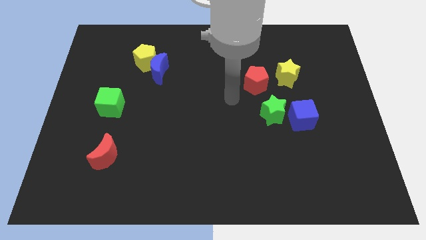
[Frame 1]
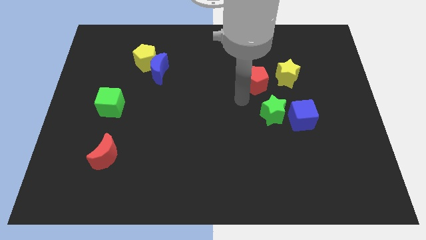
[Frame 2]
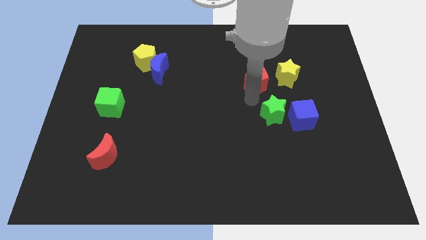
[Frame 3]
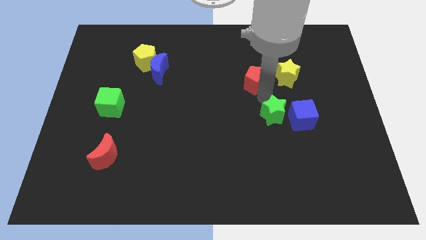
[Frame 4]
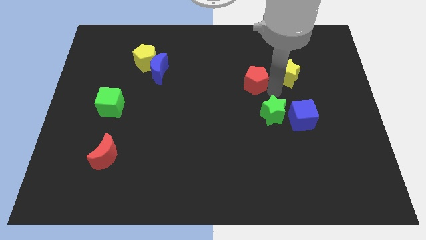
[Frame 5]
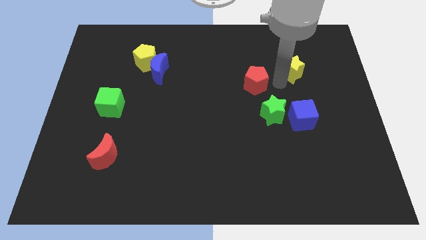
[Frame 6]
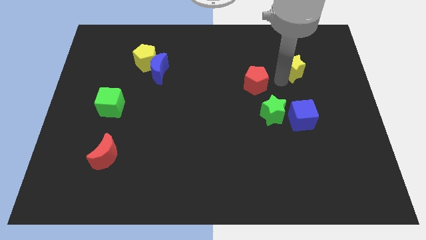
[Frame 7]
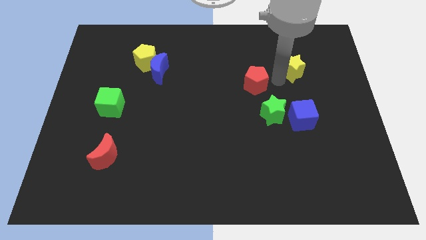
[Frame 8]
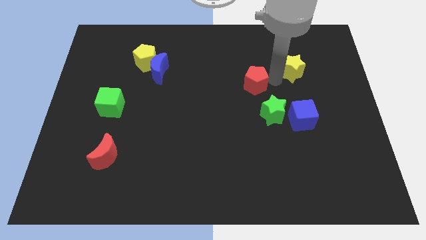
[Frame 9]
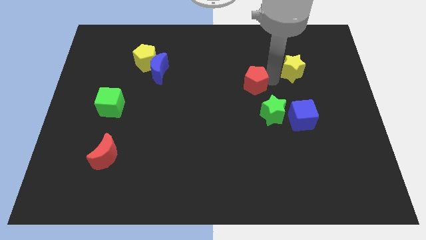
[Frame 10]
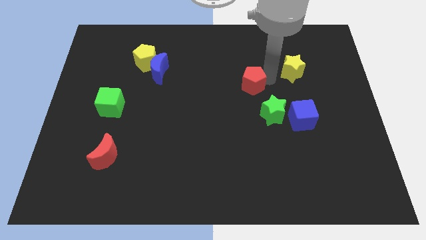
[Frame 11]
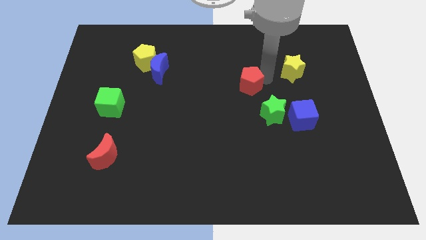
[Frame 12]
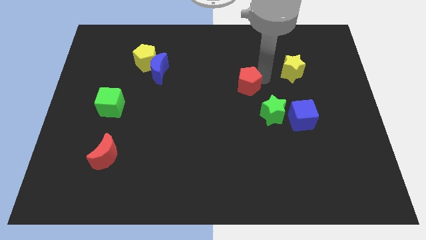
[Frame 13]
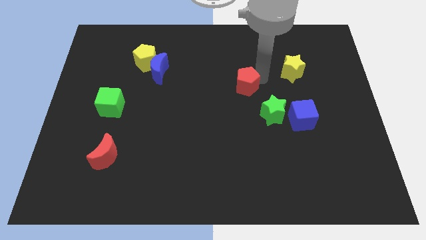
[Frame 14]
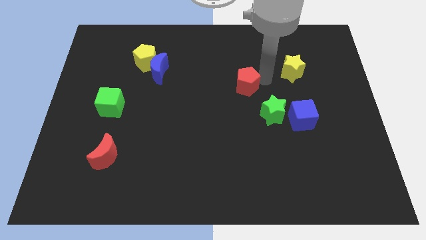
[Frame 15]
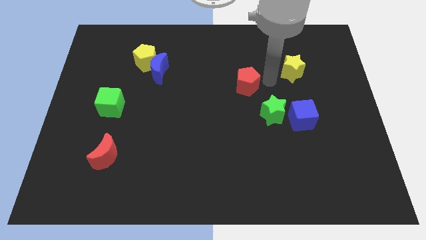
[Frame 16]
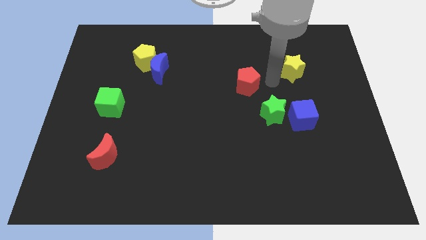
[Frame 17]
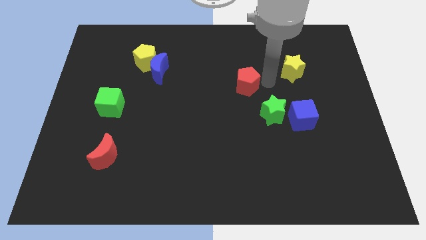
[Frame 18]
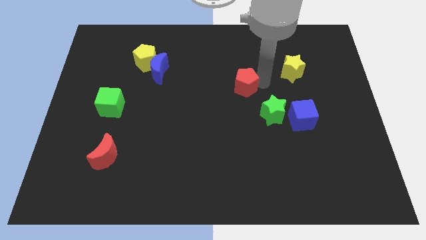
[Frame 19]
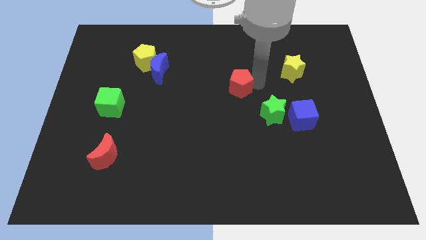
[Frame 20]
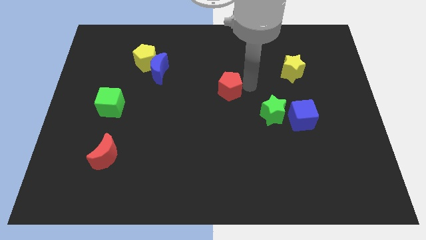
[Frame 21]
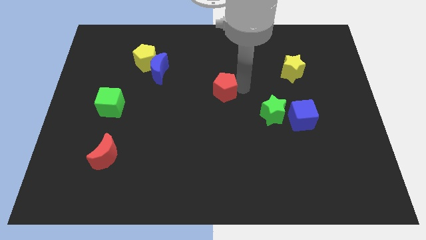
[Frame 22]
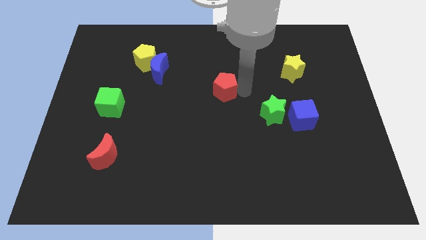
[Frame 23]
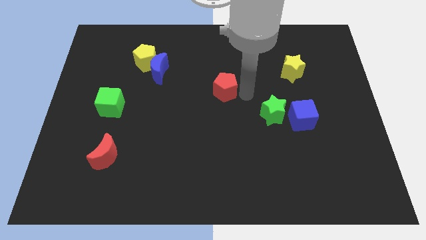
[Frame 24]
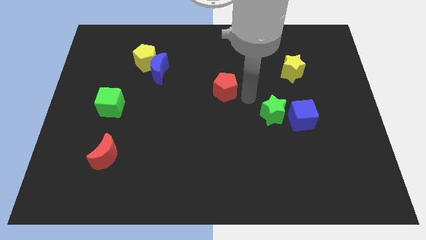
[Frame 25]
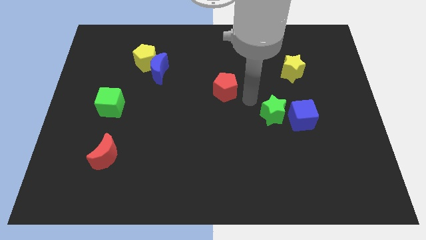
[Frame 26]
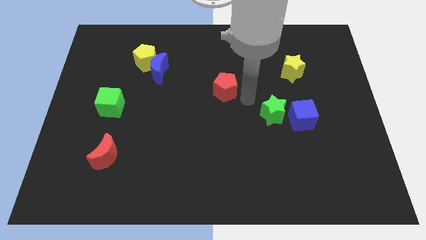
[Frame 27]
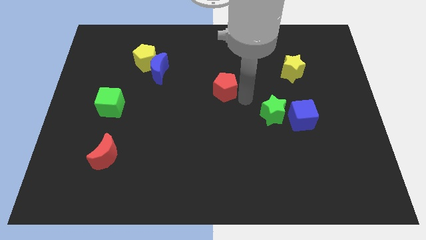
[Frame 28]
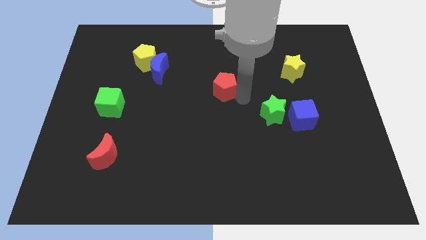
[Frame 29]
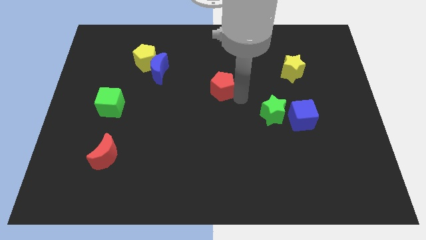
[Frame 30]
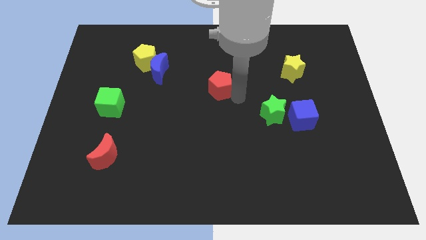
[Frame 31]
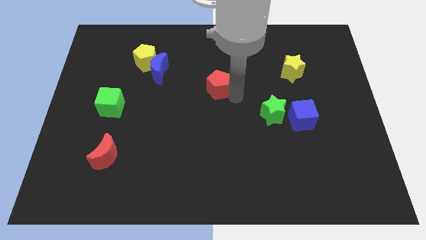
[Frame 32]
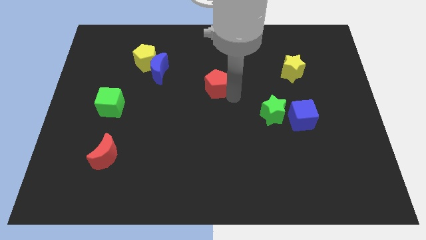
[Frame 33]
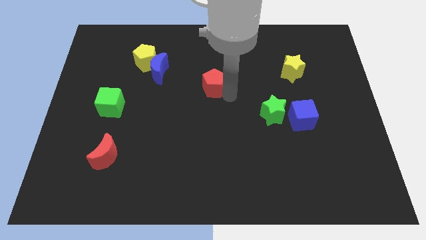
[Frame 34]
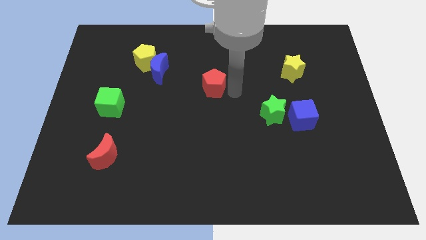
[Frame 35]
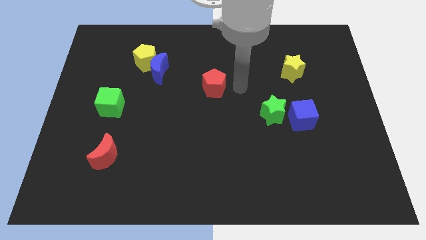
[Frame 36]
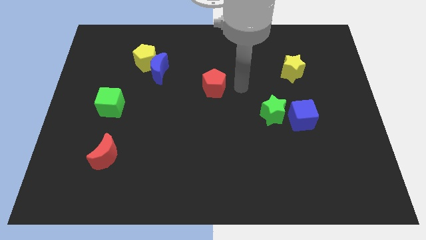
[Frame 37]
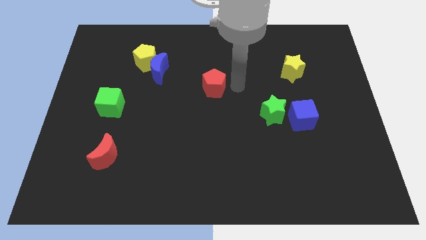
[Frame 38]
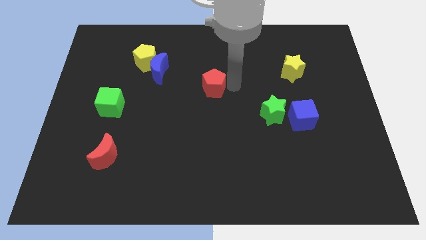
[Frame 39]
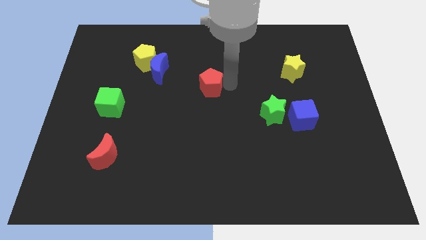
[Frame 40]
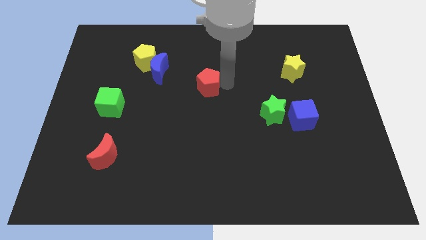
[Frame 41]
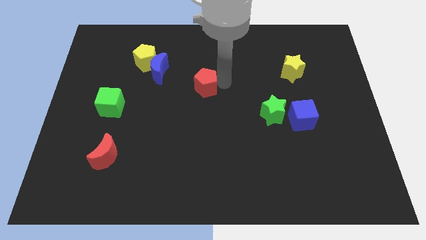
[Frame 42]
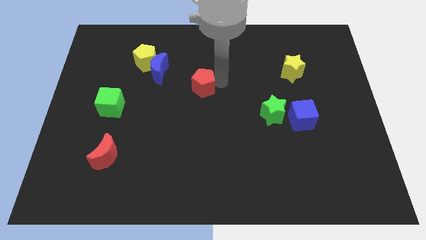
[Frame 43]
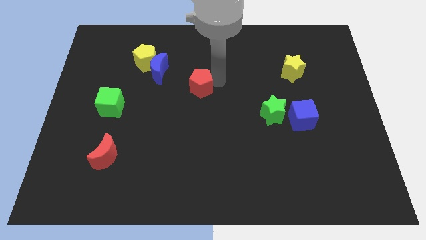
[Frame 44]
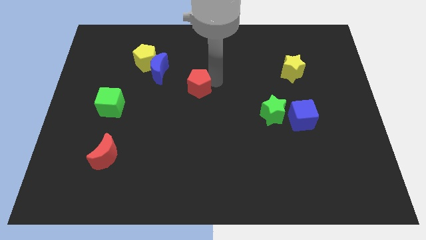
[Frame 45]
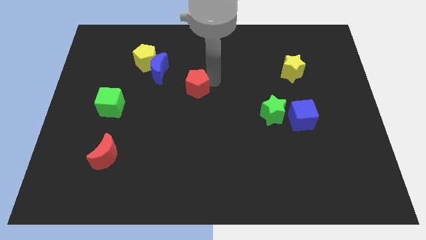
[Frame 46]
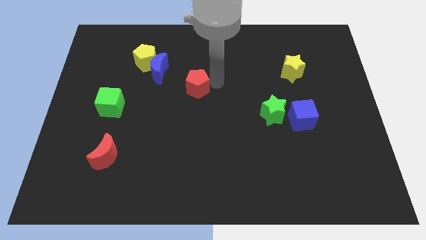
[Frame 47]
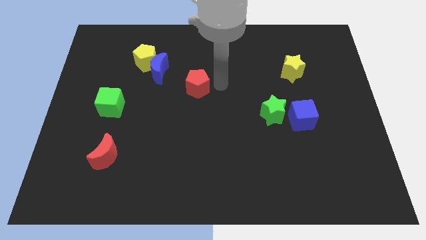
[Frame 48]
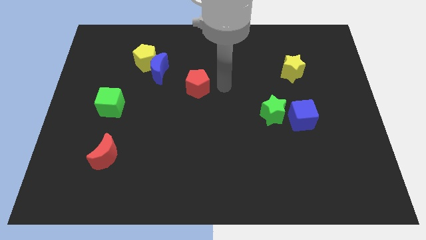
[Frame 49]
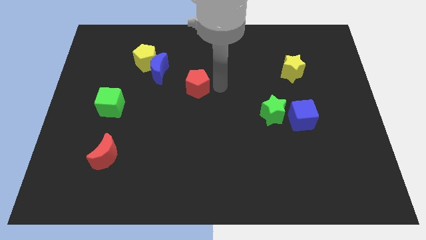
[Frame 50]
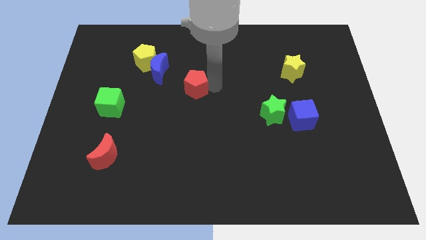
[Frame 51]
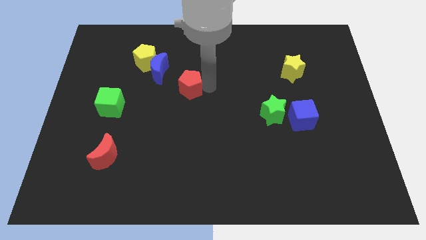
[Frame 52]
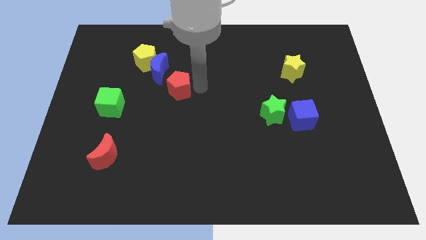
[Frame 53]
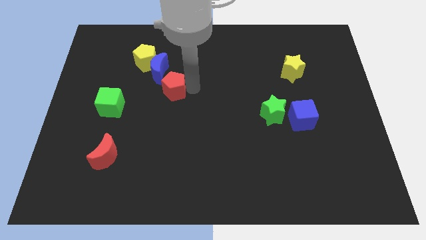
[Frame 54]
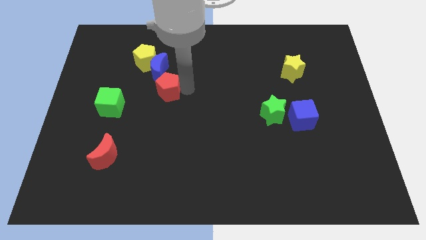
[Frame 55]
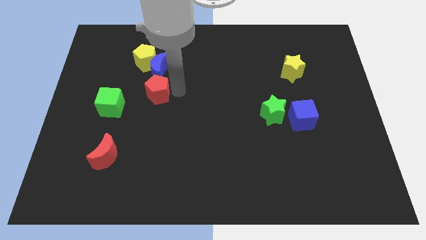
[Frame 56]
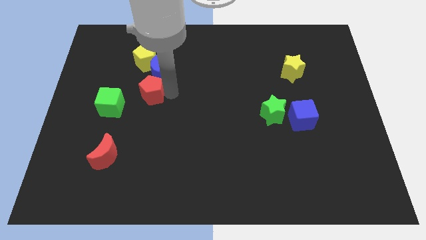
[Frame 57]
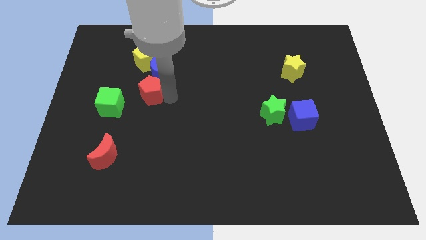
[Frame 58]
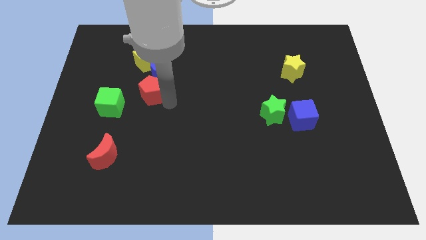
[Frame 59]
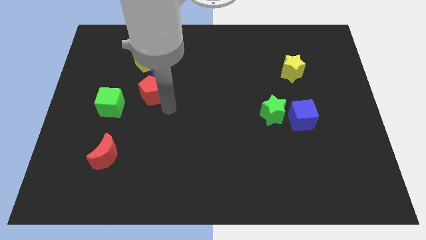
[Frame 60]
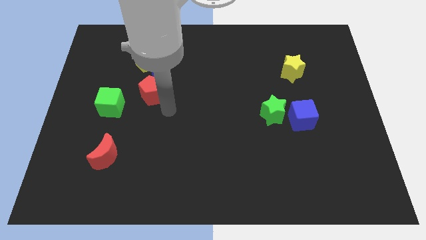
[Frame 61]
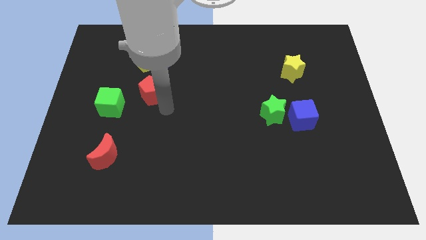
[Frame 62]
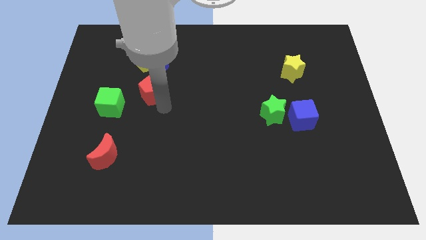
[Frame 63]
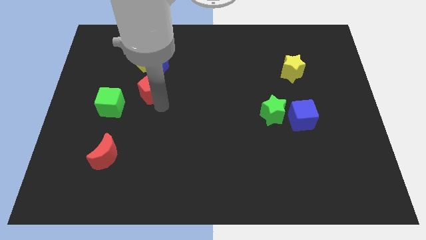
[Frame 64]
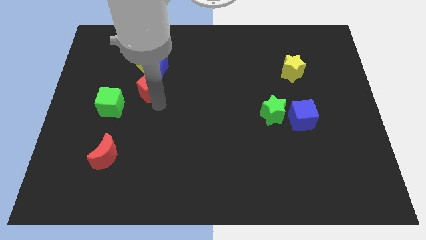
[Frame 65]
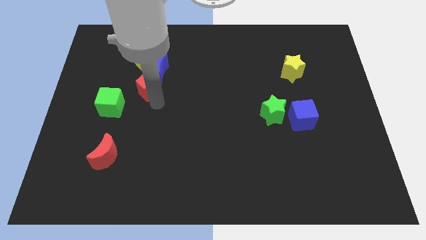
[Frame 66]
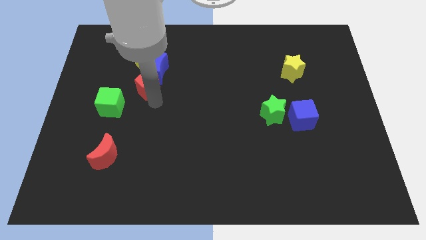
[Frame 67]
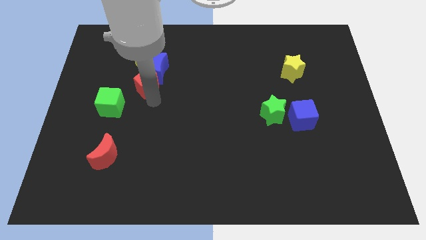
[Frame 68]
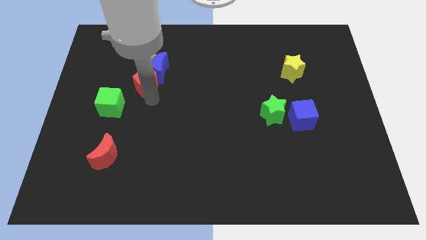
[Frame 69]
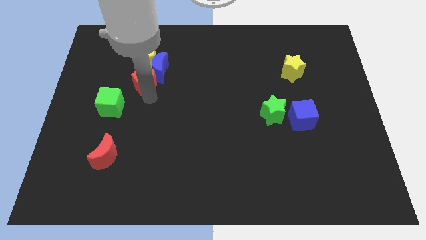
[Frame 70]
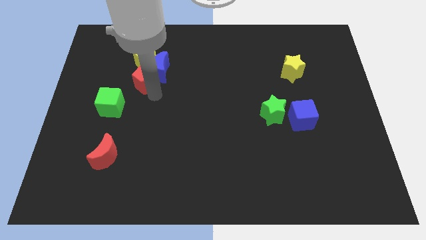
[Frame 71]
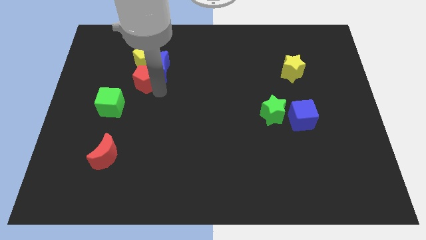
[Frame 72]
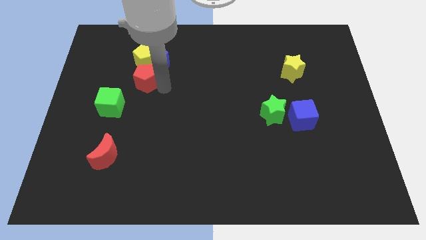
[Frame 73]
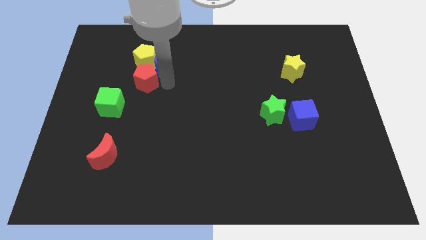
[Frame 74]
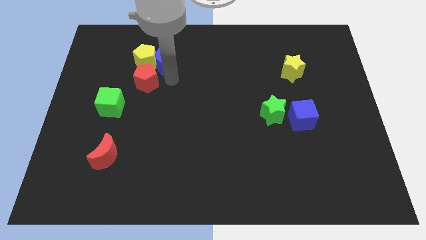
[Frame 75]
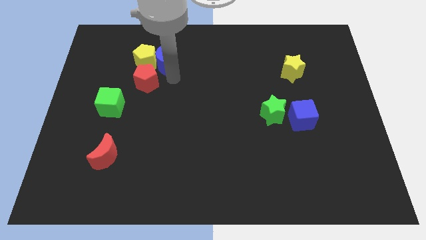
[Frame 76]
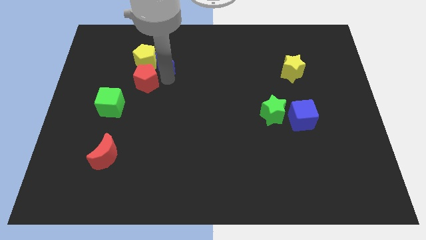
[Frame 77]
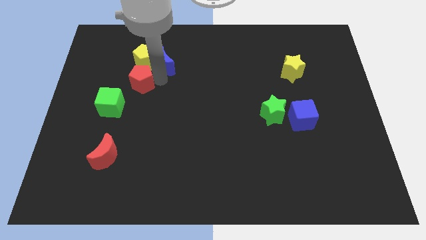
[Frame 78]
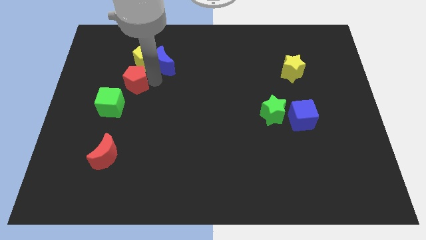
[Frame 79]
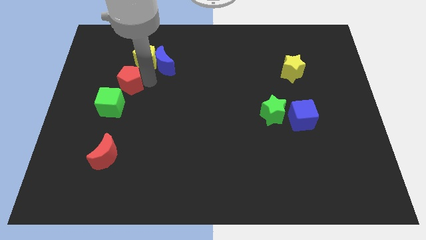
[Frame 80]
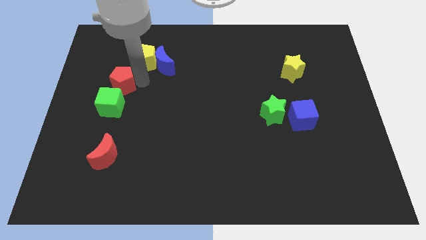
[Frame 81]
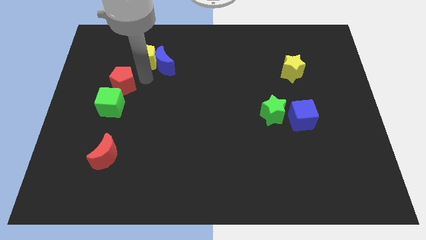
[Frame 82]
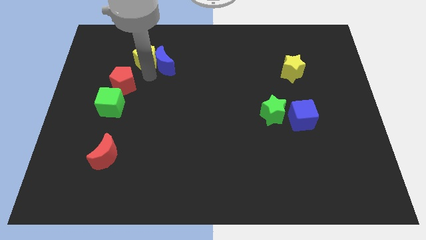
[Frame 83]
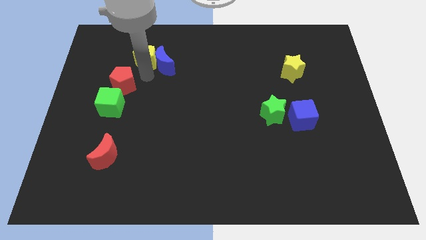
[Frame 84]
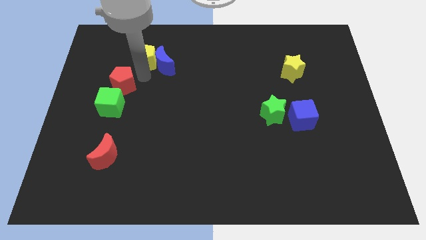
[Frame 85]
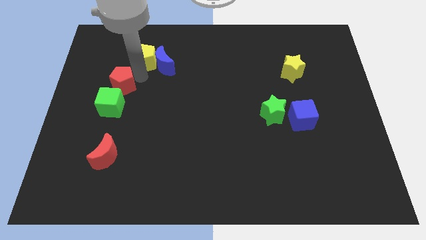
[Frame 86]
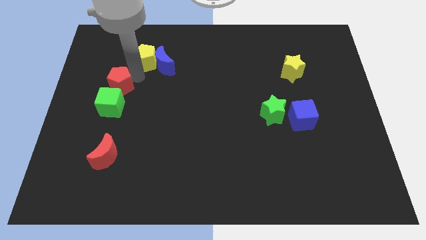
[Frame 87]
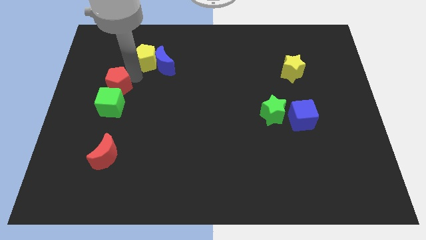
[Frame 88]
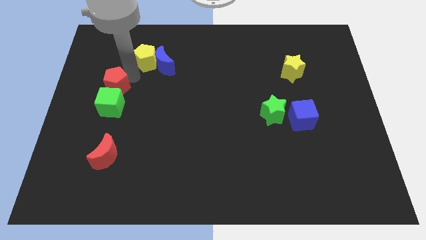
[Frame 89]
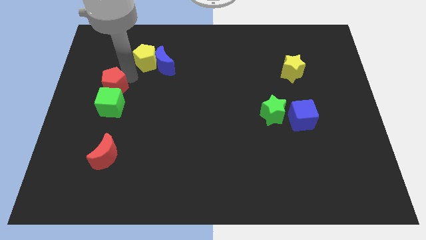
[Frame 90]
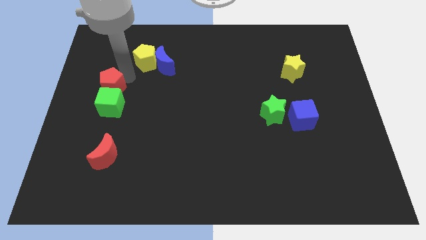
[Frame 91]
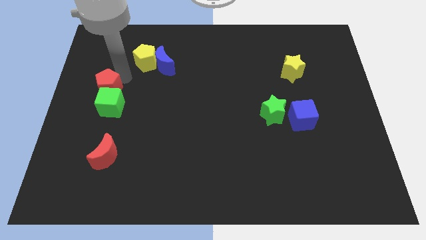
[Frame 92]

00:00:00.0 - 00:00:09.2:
push the red pentagon to the left side of the board
